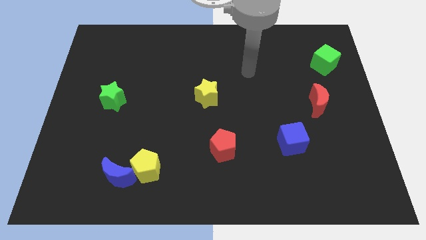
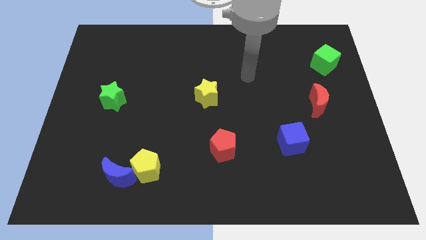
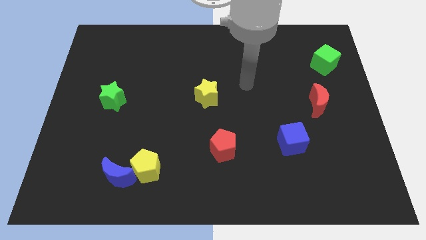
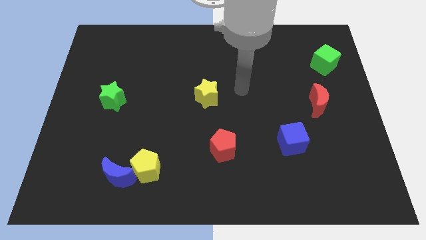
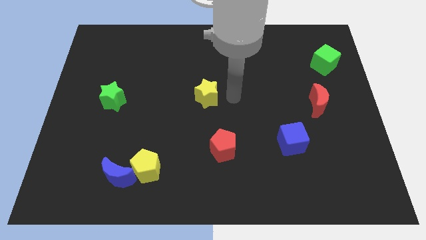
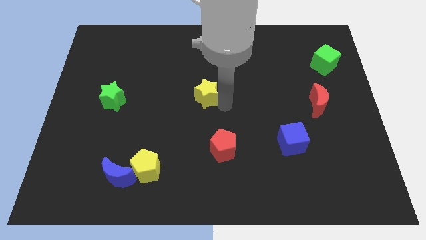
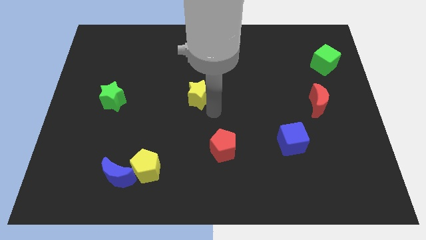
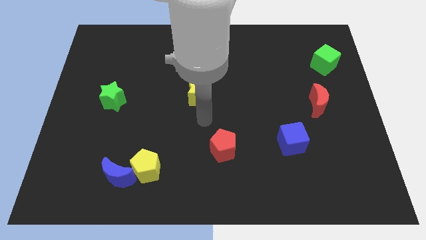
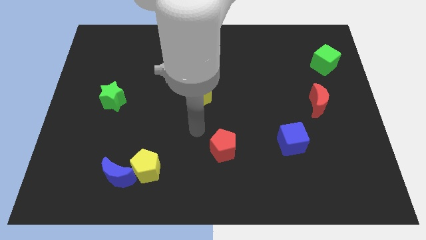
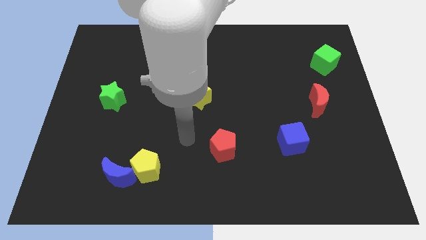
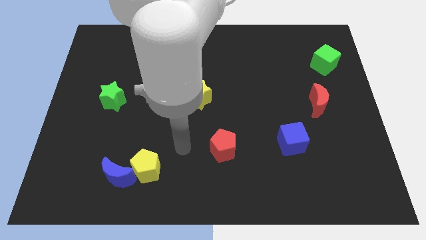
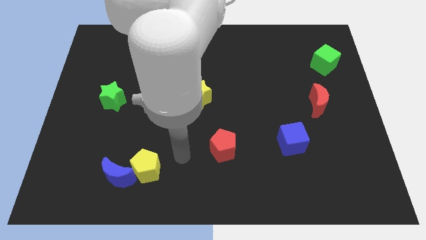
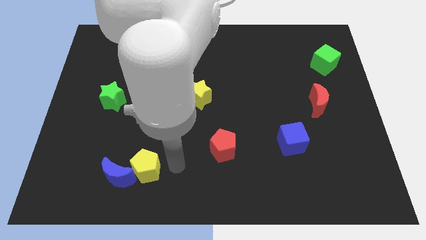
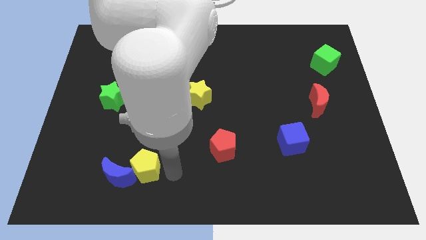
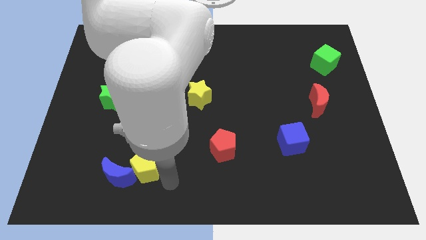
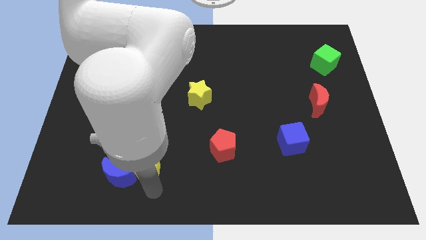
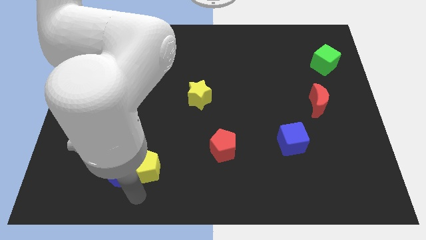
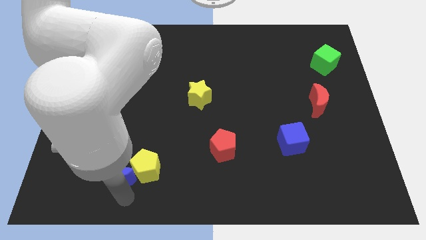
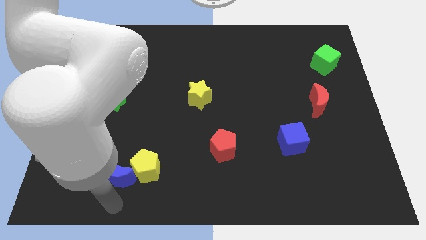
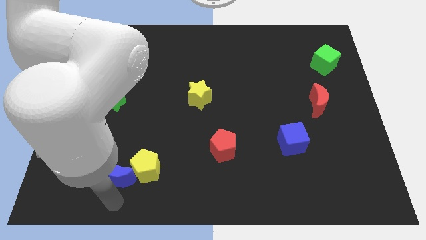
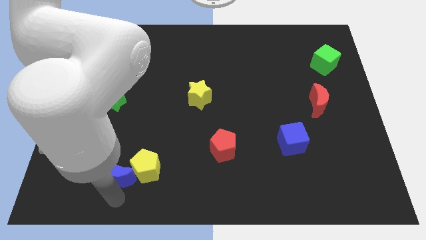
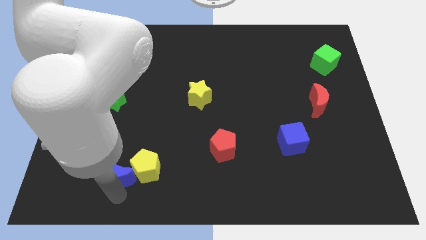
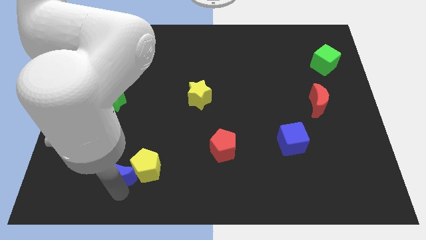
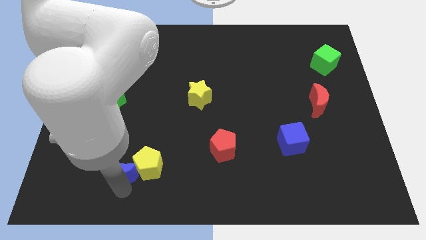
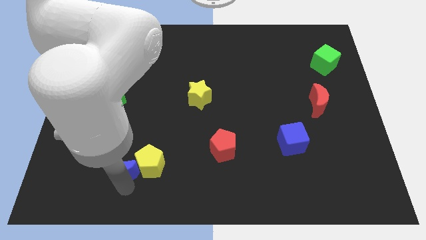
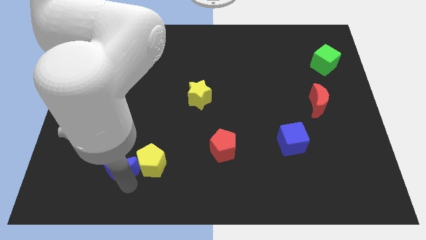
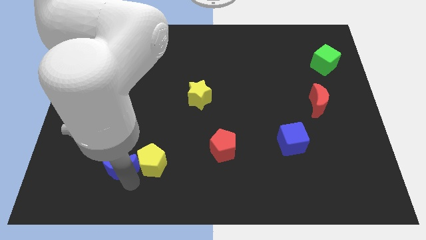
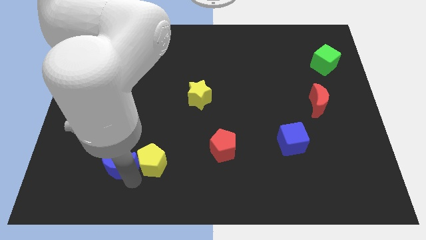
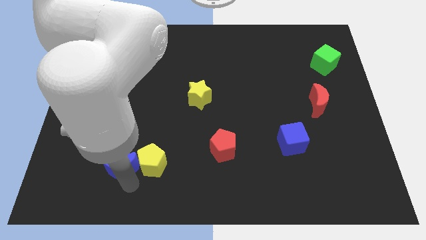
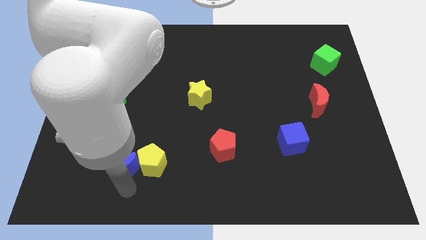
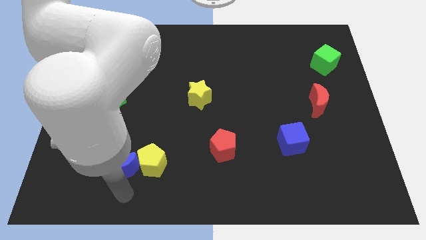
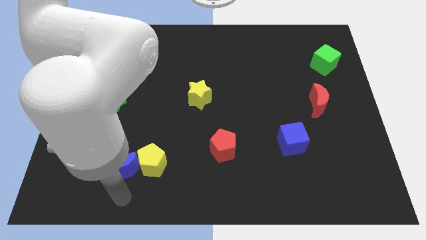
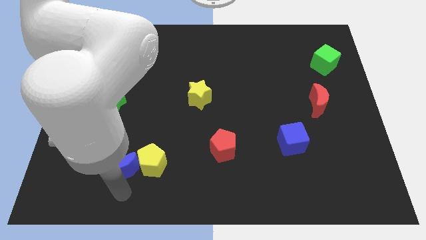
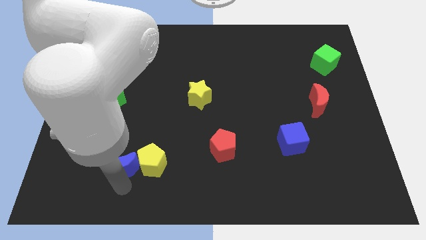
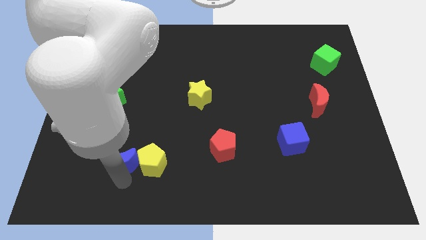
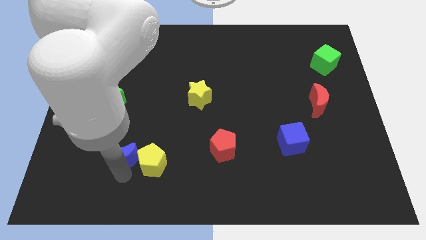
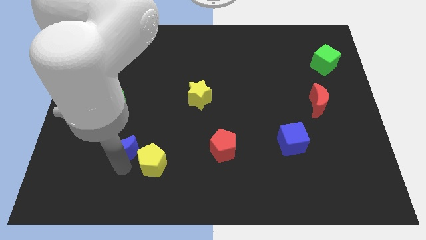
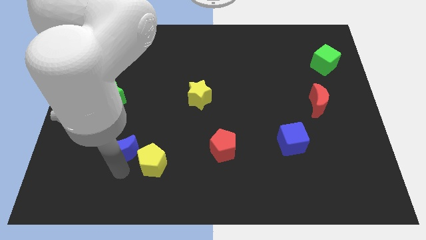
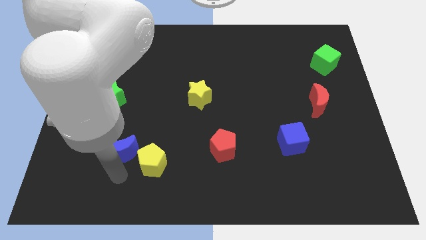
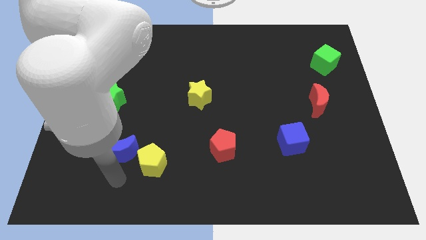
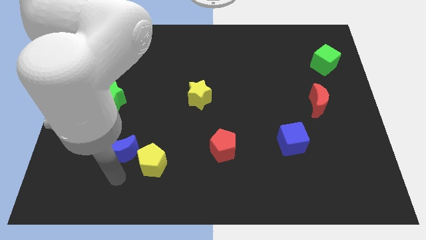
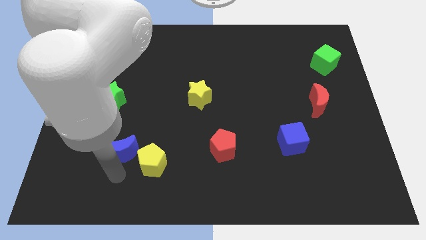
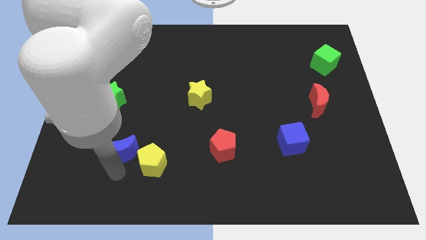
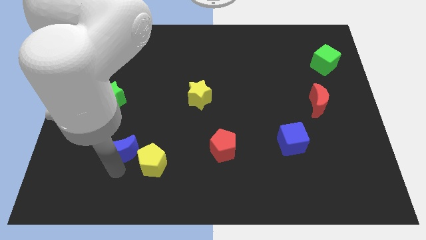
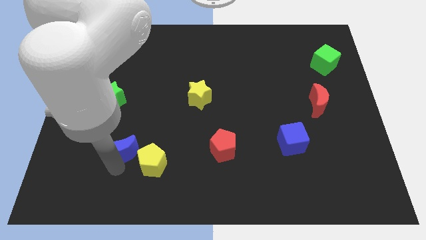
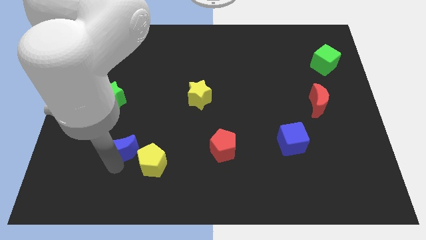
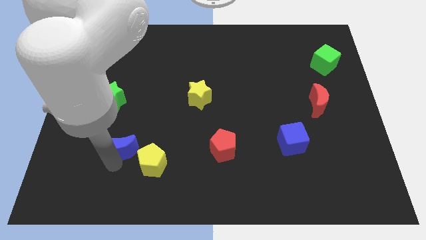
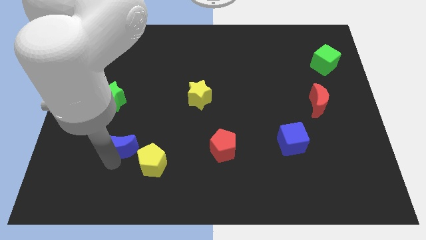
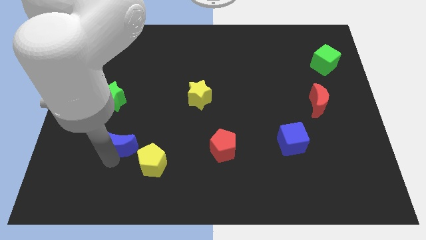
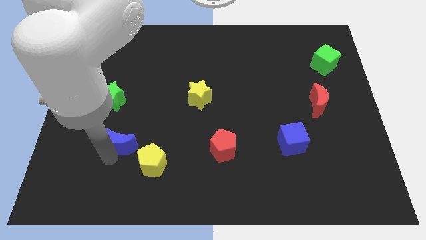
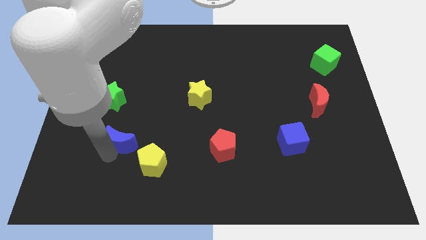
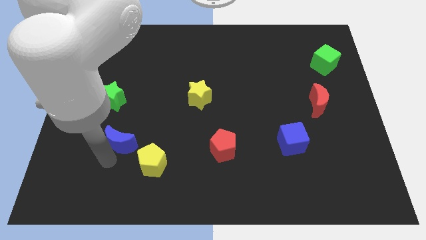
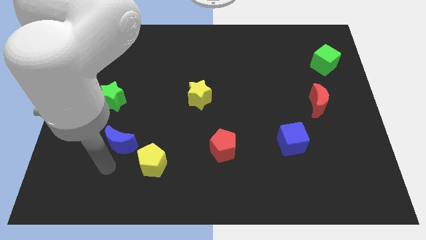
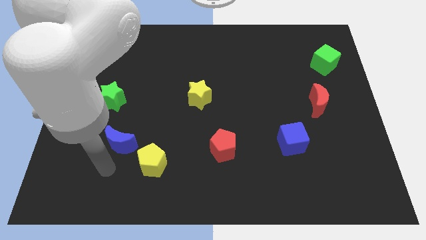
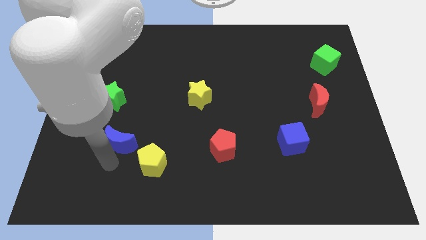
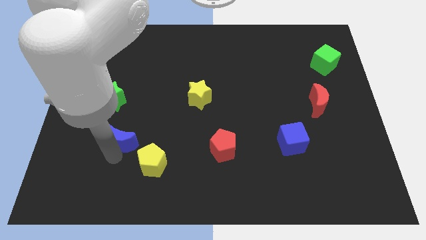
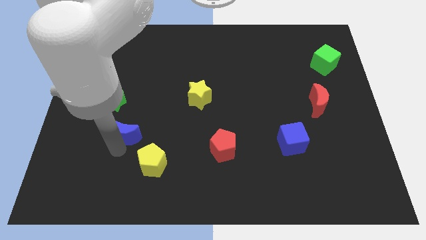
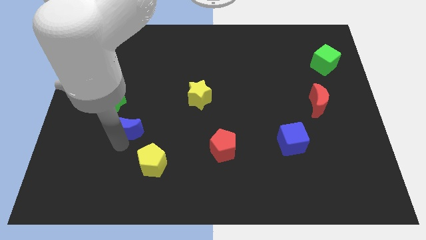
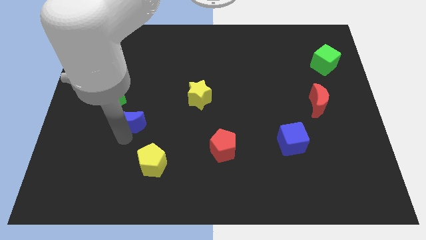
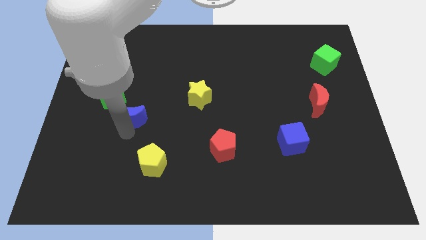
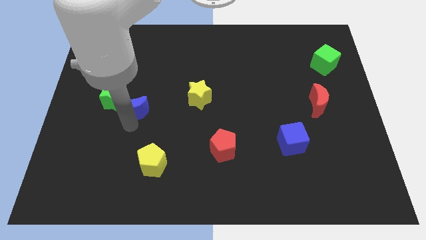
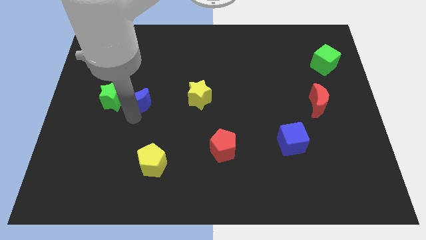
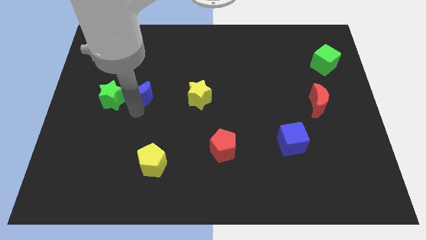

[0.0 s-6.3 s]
slide the blue moon to the top right side of the green star

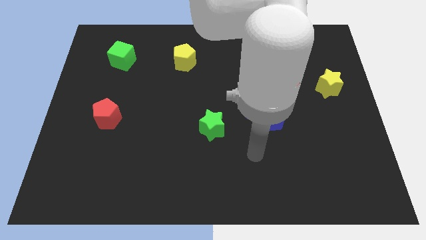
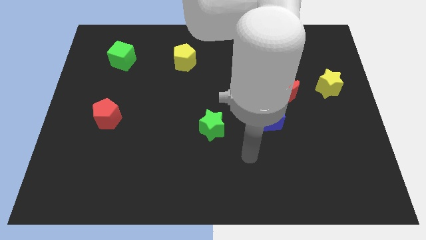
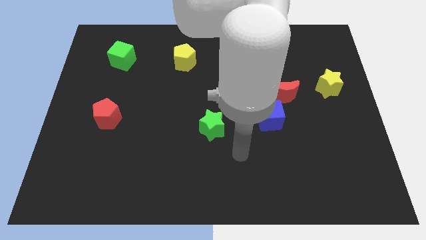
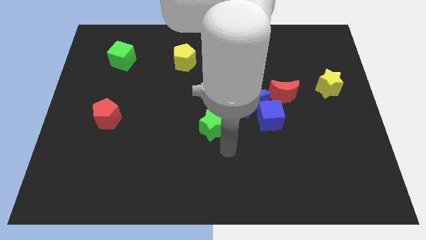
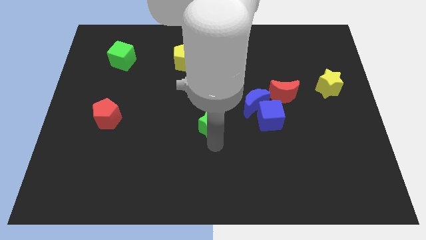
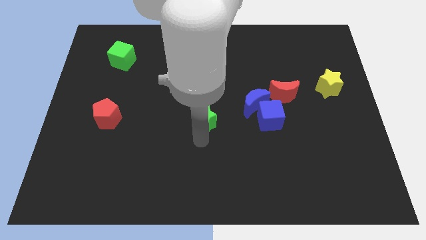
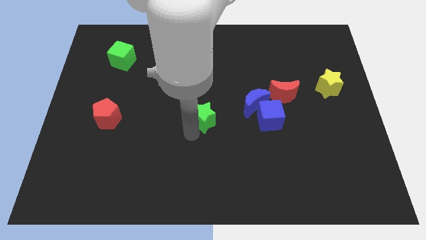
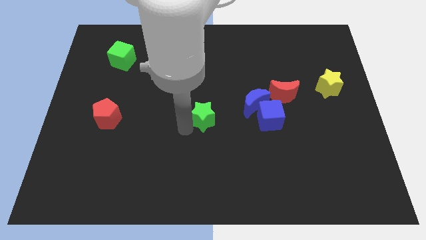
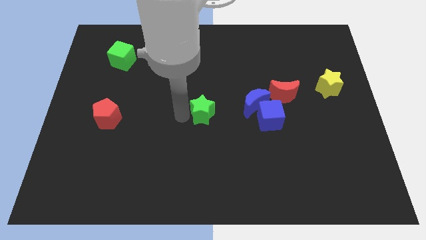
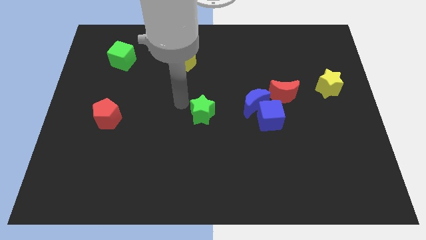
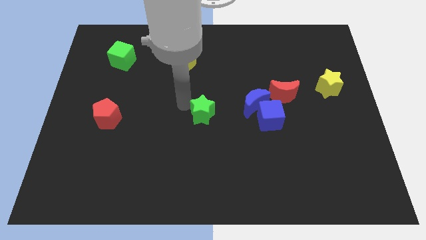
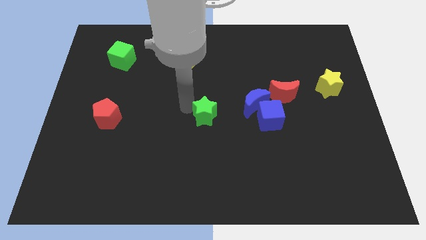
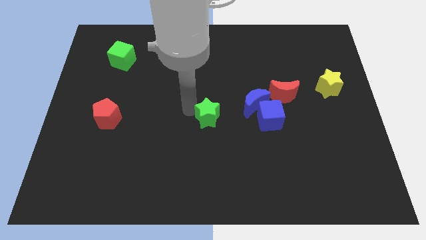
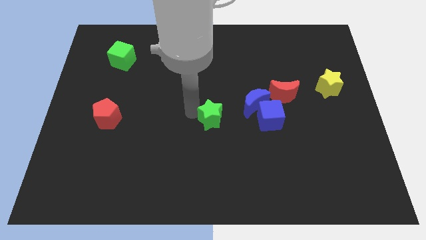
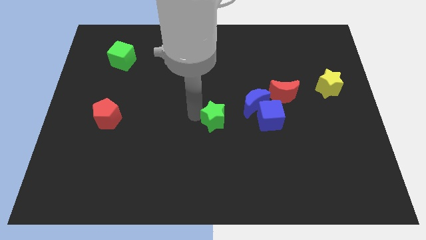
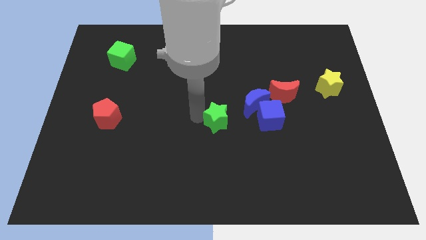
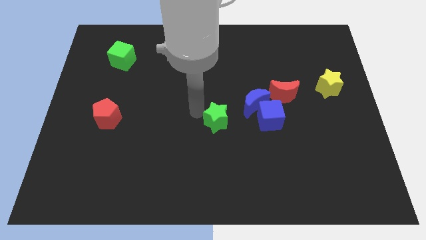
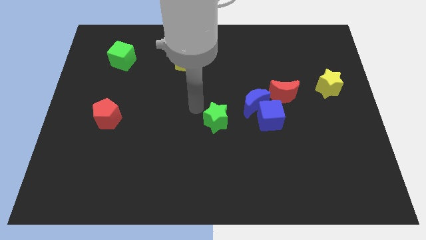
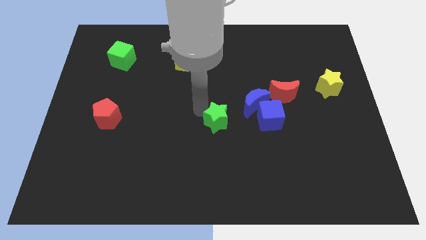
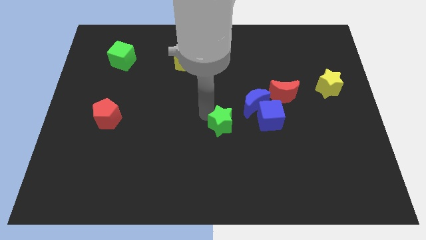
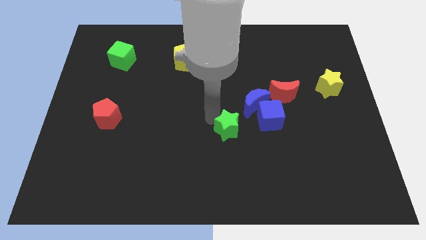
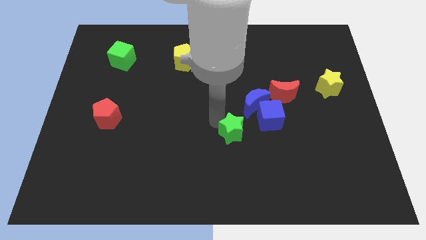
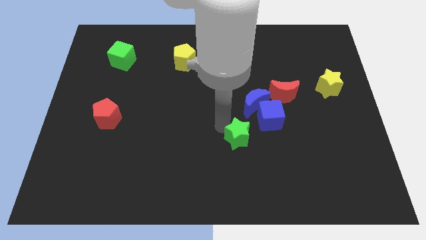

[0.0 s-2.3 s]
slide the green star to the bottom side of the blue moon
